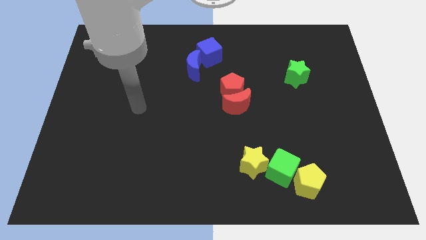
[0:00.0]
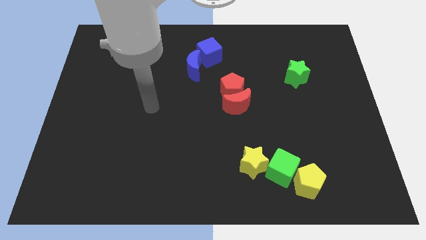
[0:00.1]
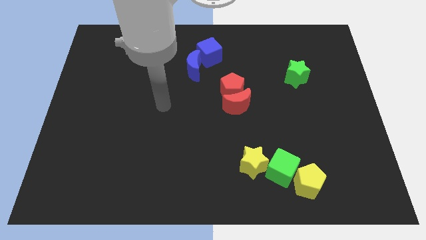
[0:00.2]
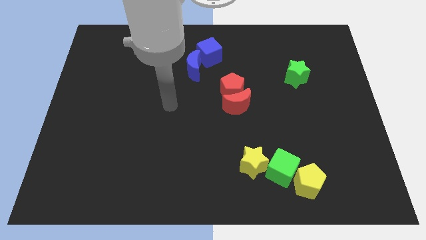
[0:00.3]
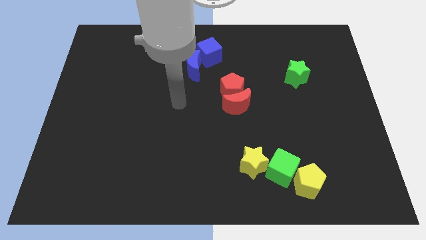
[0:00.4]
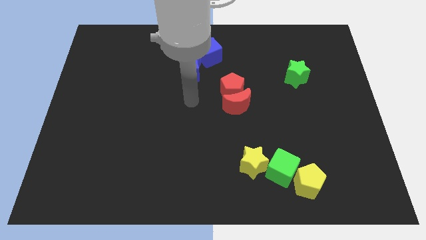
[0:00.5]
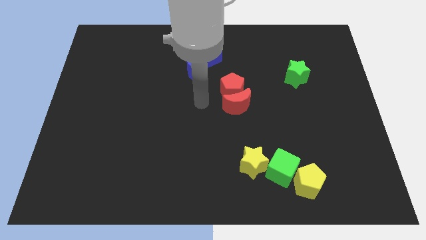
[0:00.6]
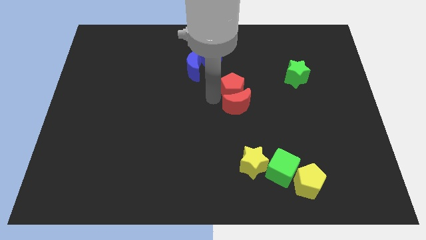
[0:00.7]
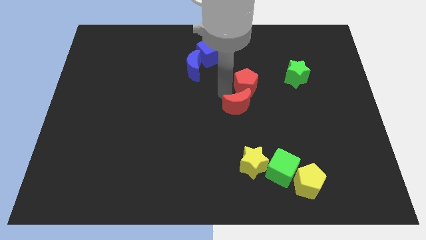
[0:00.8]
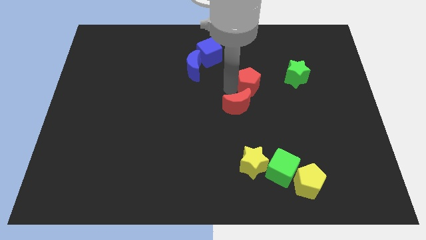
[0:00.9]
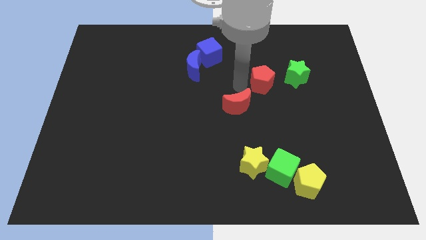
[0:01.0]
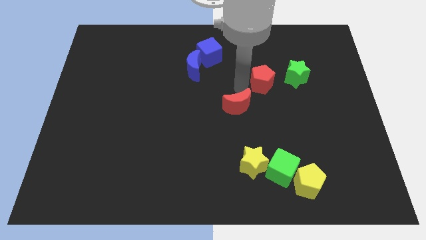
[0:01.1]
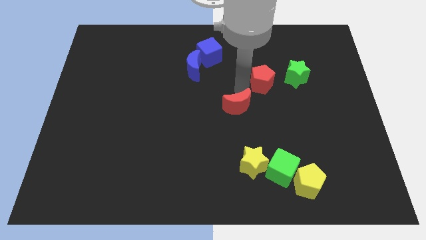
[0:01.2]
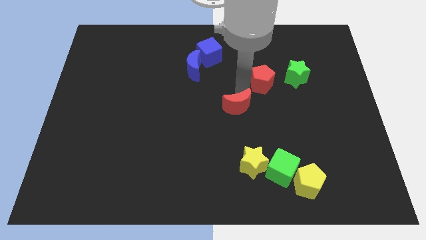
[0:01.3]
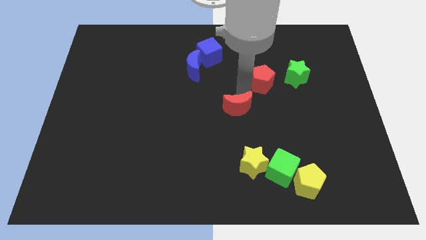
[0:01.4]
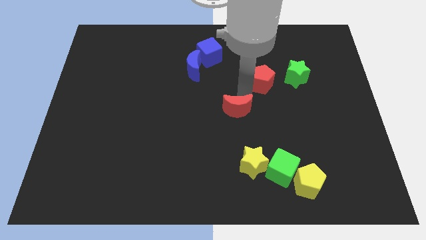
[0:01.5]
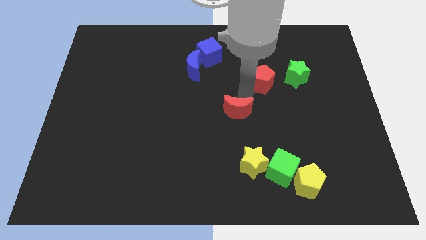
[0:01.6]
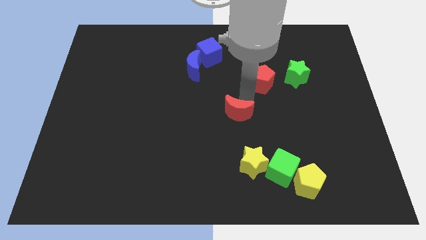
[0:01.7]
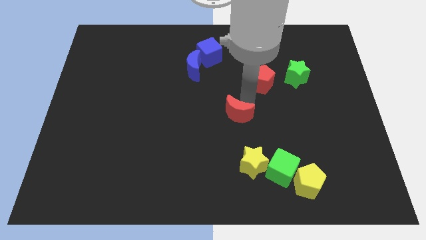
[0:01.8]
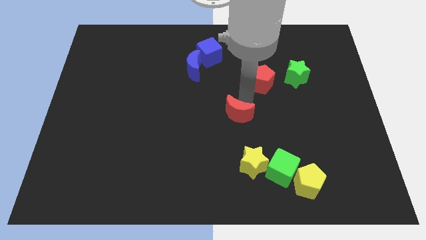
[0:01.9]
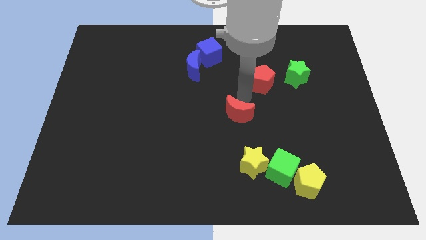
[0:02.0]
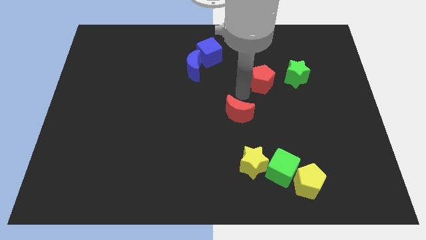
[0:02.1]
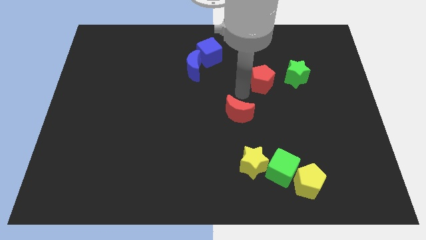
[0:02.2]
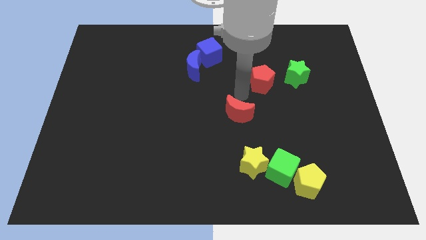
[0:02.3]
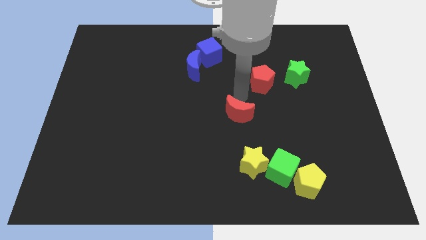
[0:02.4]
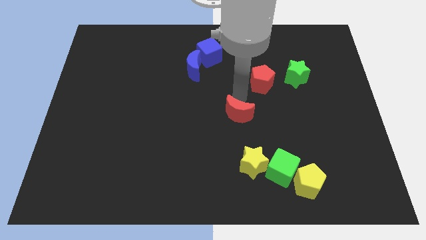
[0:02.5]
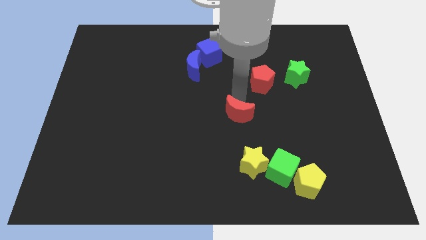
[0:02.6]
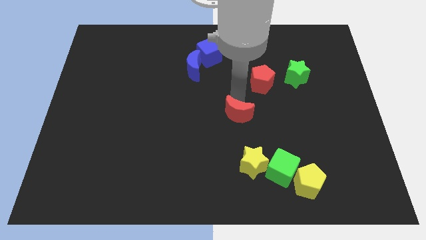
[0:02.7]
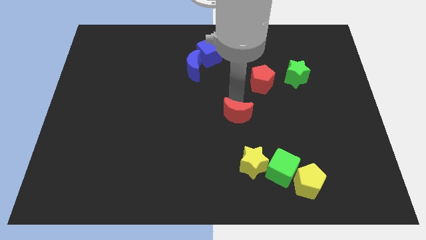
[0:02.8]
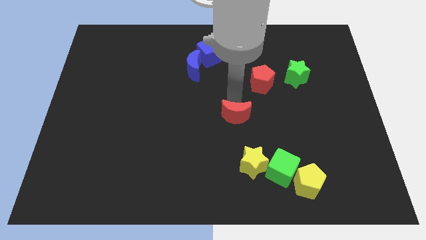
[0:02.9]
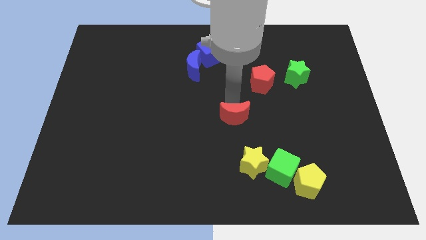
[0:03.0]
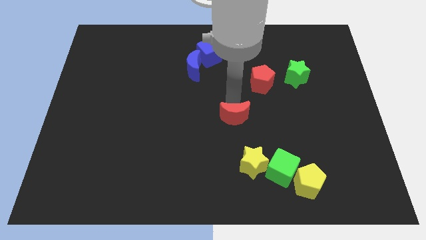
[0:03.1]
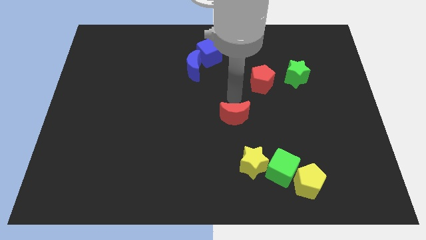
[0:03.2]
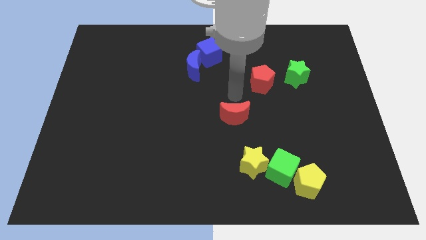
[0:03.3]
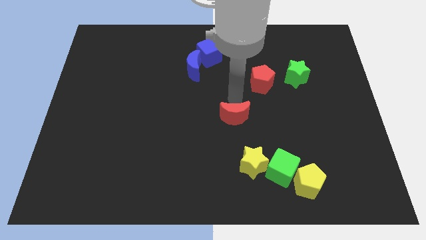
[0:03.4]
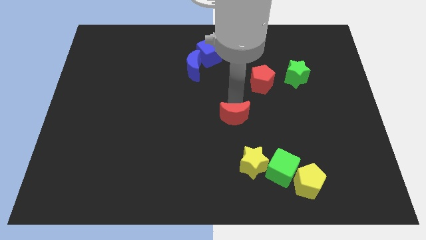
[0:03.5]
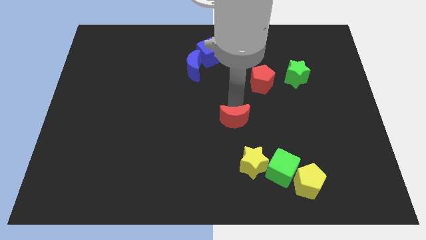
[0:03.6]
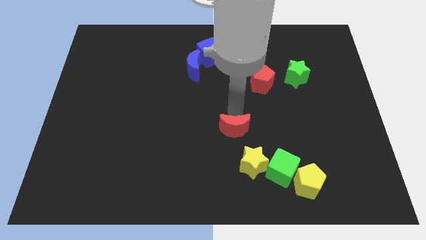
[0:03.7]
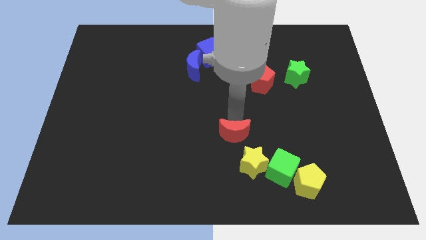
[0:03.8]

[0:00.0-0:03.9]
slide the red moon a little downwards

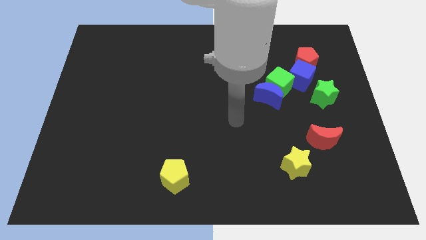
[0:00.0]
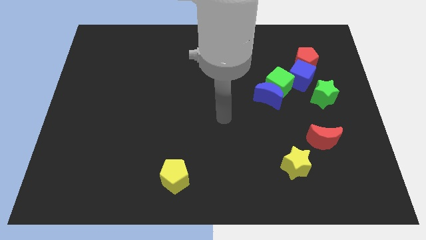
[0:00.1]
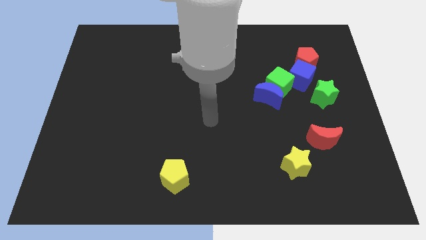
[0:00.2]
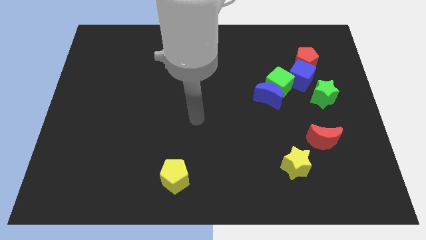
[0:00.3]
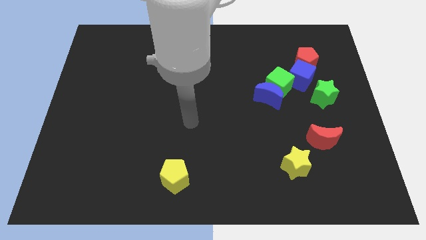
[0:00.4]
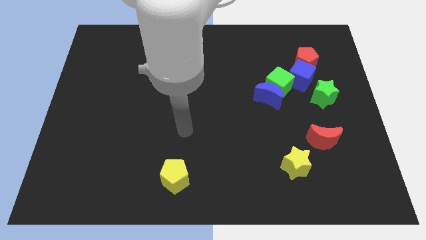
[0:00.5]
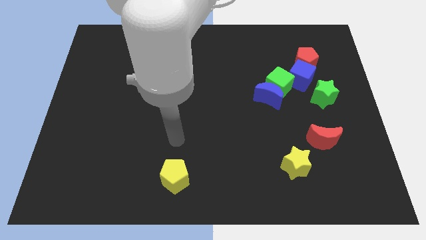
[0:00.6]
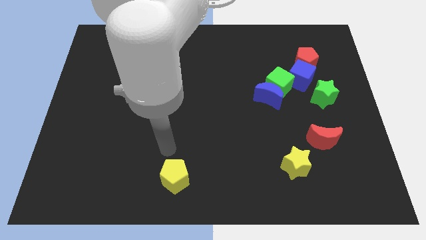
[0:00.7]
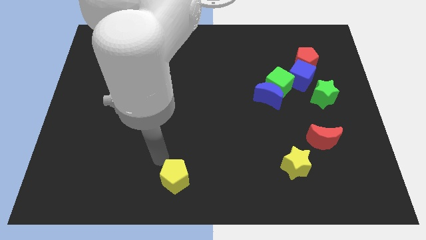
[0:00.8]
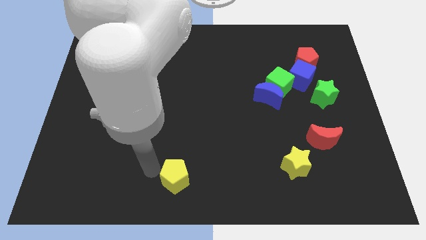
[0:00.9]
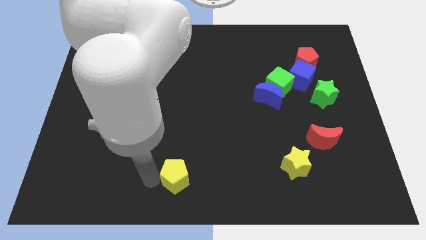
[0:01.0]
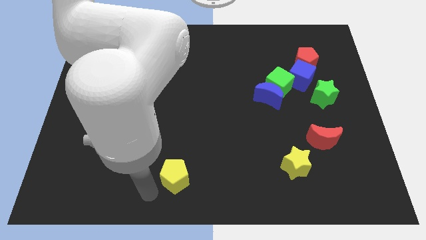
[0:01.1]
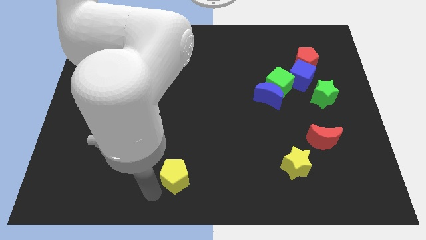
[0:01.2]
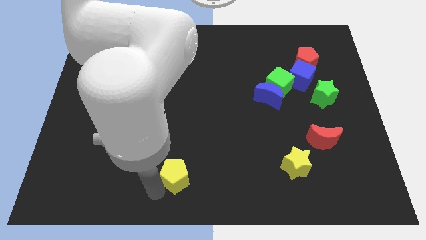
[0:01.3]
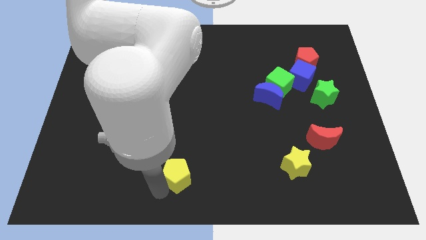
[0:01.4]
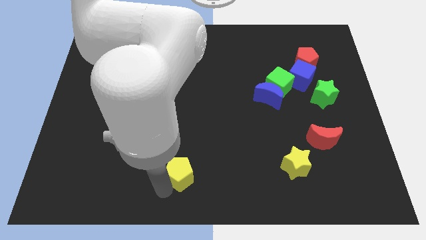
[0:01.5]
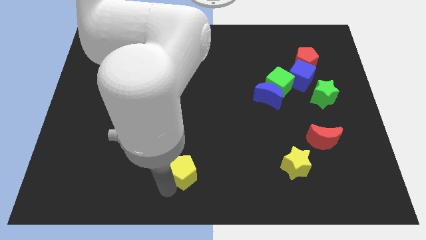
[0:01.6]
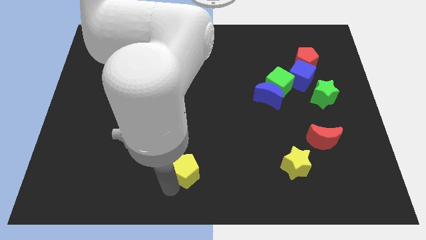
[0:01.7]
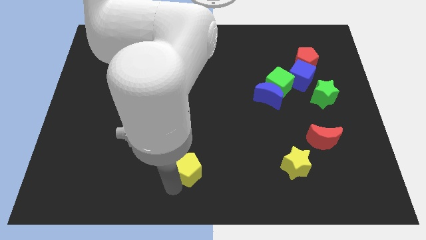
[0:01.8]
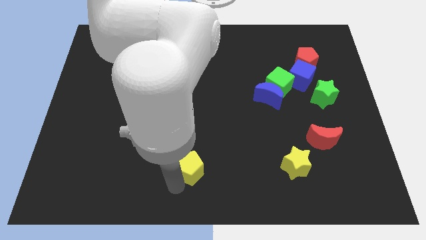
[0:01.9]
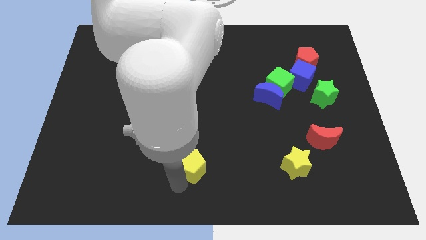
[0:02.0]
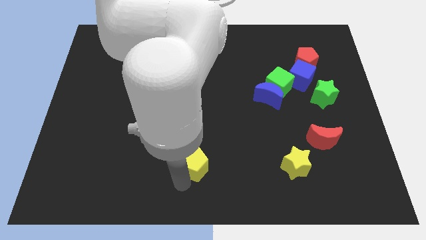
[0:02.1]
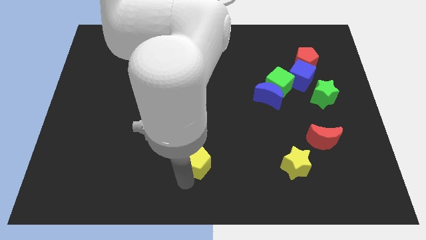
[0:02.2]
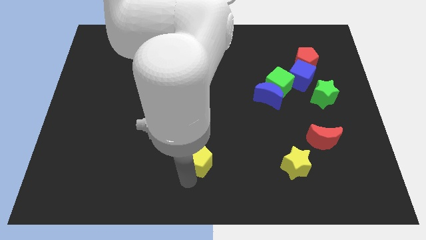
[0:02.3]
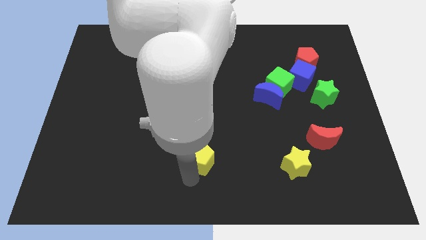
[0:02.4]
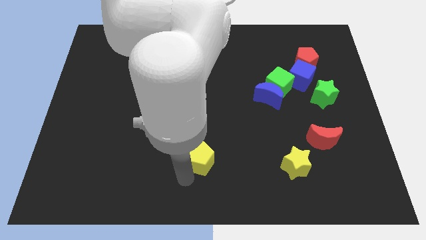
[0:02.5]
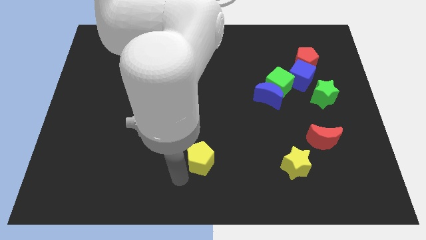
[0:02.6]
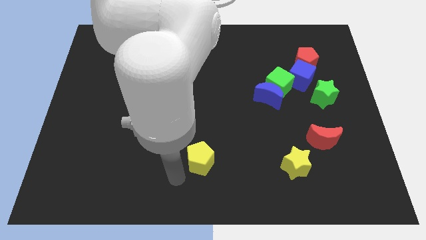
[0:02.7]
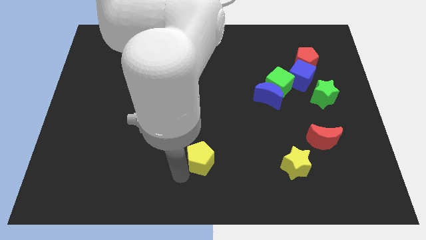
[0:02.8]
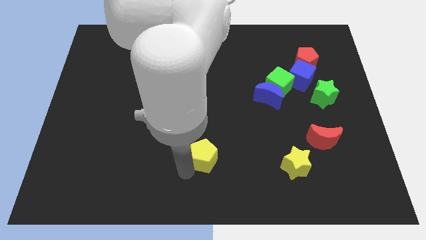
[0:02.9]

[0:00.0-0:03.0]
move the yellow pentagon up and then right a little

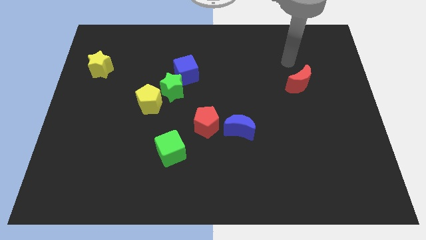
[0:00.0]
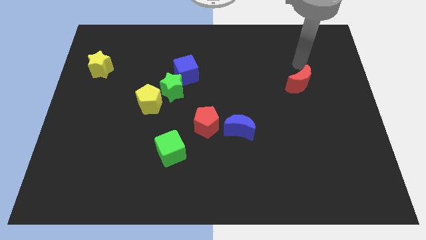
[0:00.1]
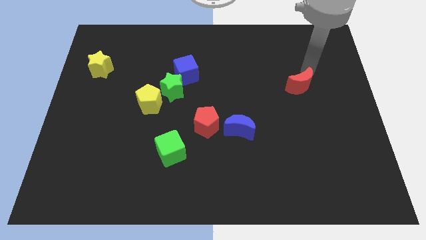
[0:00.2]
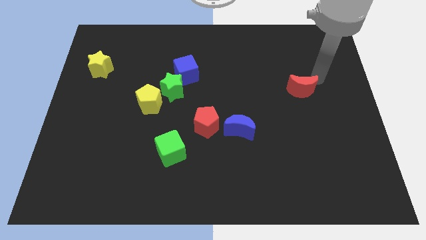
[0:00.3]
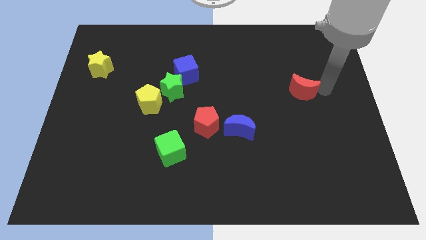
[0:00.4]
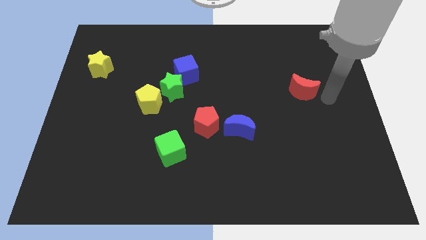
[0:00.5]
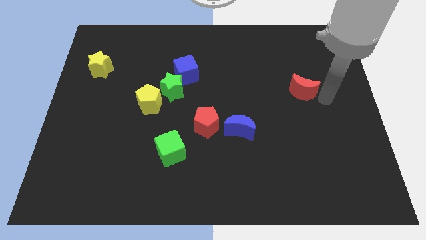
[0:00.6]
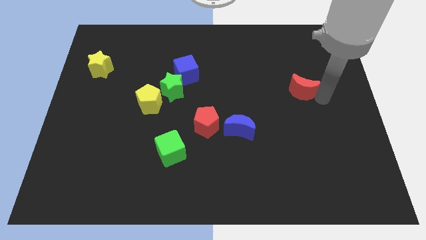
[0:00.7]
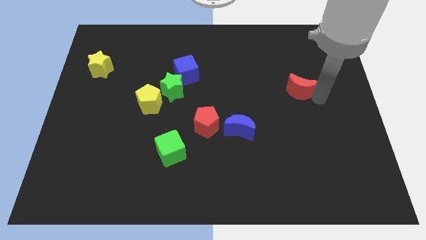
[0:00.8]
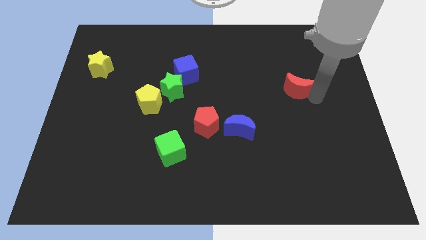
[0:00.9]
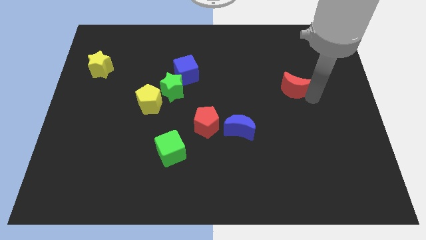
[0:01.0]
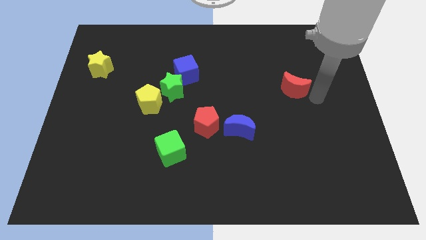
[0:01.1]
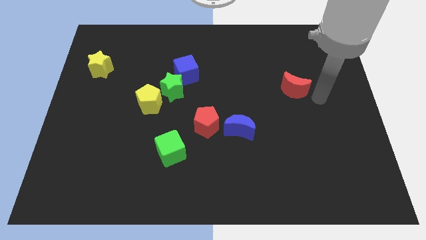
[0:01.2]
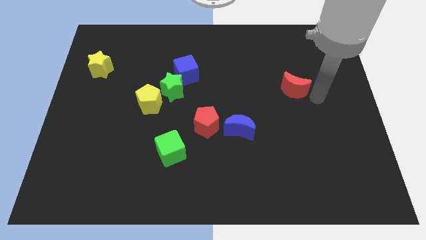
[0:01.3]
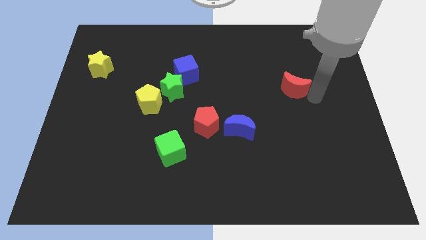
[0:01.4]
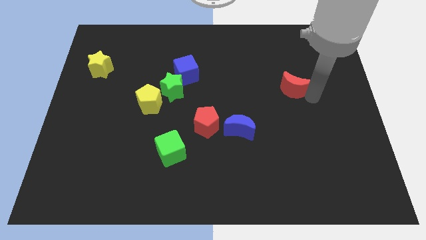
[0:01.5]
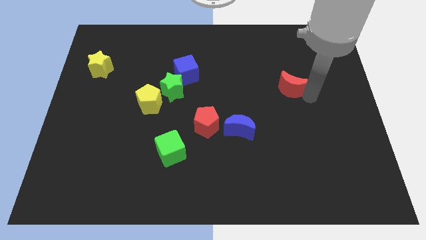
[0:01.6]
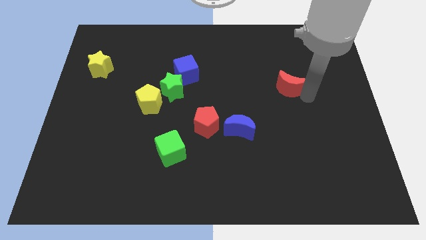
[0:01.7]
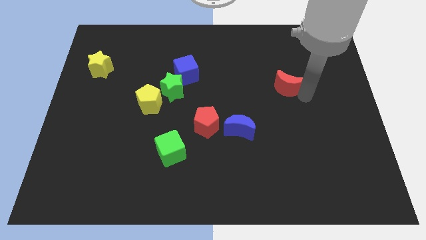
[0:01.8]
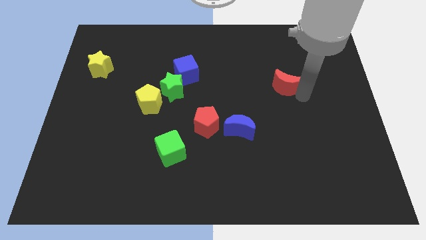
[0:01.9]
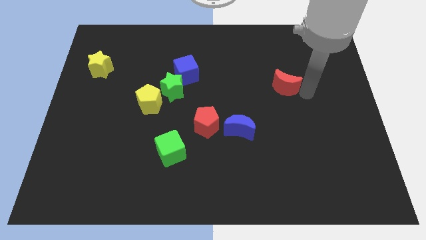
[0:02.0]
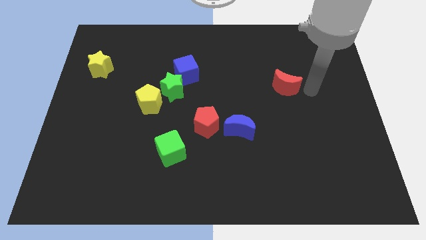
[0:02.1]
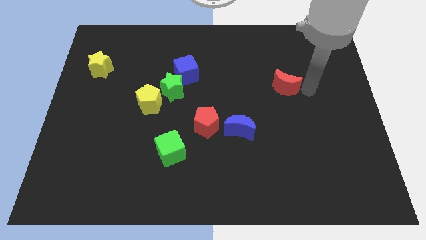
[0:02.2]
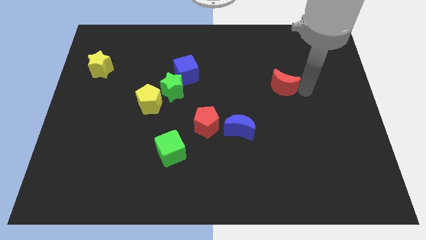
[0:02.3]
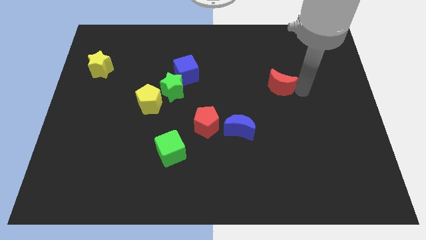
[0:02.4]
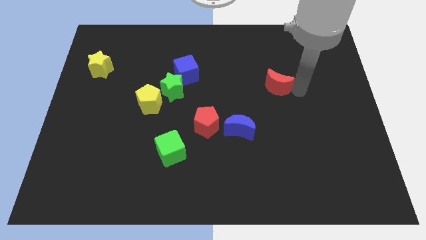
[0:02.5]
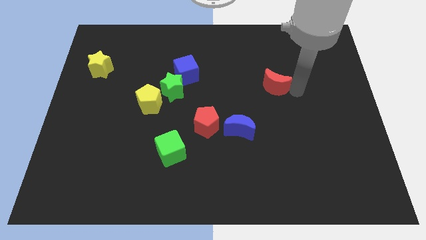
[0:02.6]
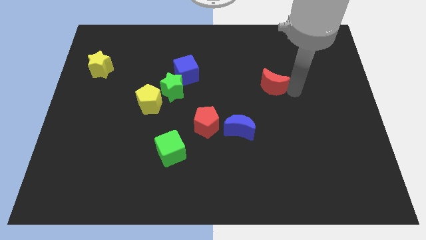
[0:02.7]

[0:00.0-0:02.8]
slightly push the red moon to the left
